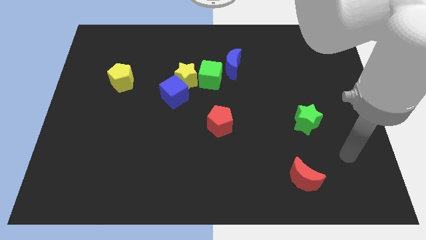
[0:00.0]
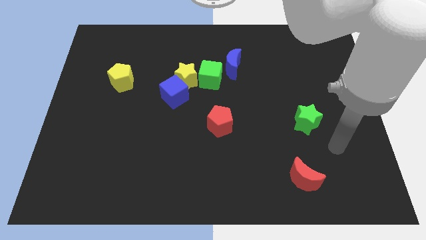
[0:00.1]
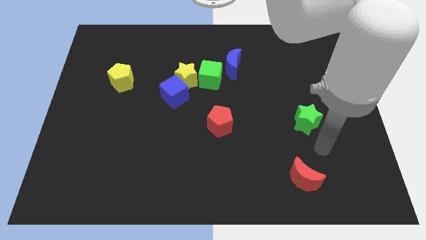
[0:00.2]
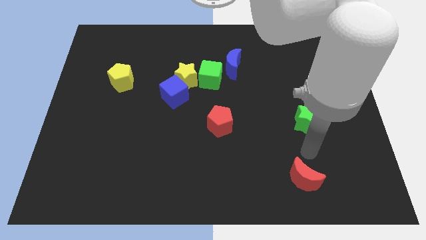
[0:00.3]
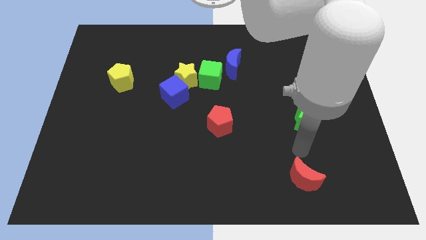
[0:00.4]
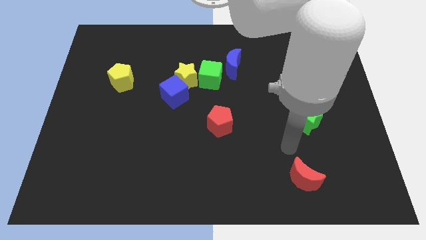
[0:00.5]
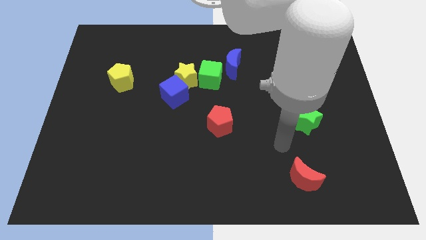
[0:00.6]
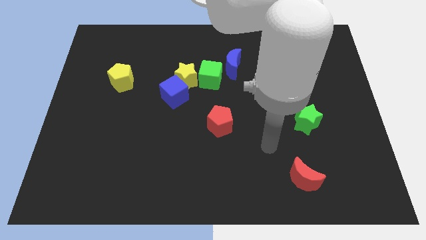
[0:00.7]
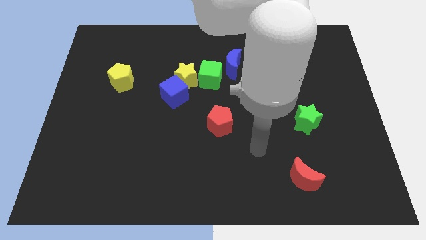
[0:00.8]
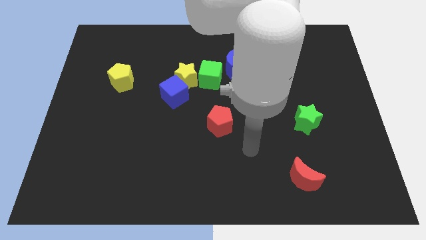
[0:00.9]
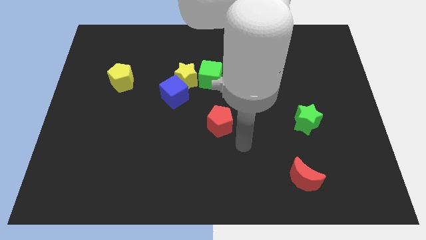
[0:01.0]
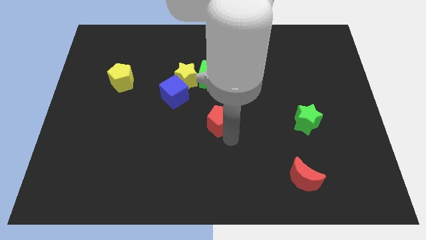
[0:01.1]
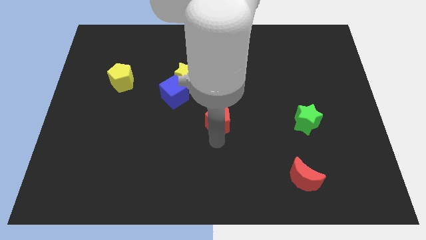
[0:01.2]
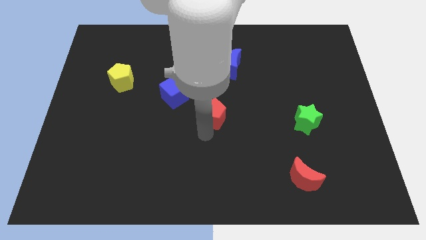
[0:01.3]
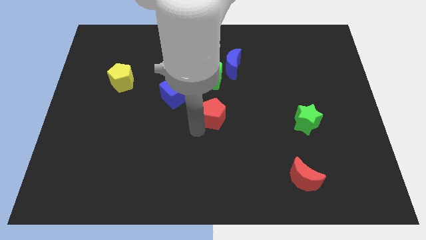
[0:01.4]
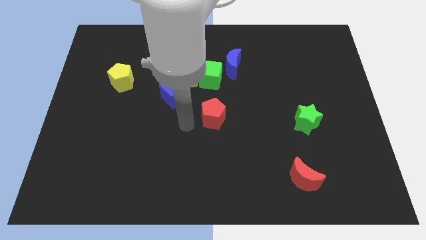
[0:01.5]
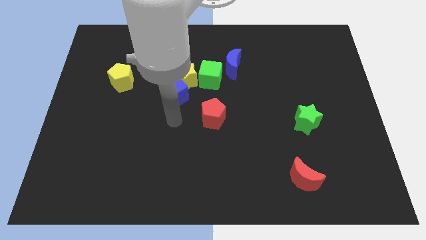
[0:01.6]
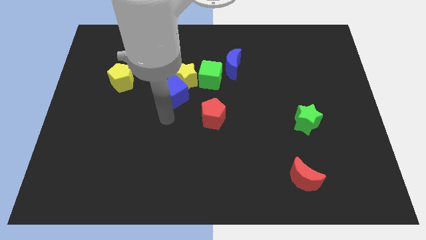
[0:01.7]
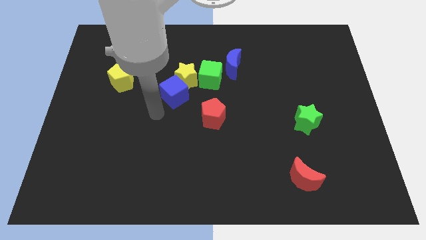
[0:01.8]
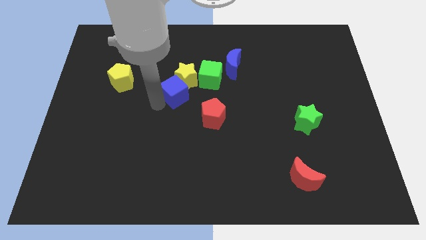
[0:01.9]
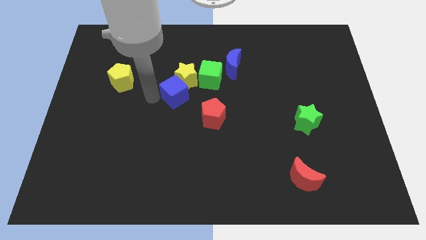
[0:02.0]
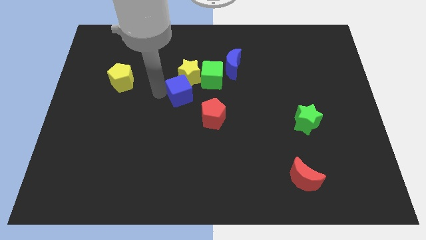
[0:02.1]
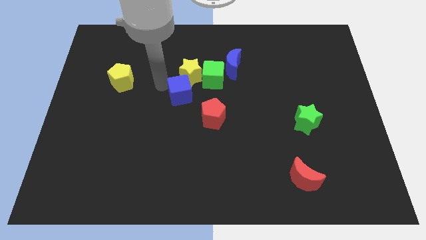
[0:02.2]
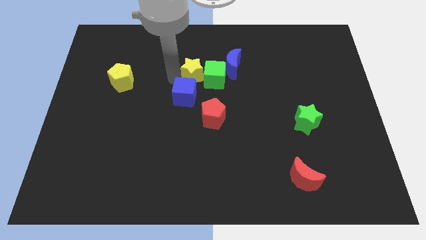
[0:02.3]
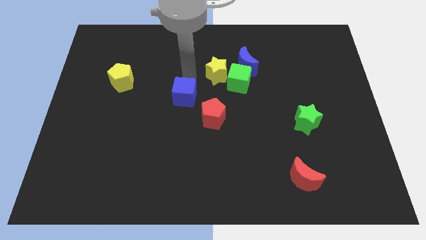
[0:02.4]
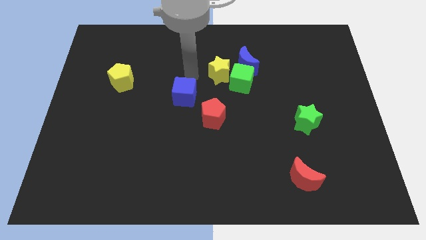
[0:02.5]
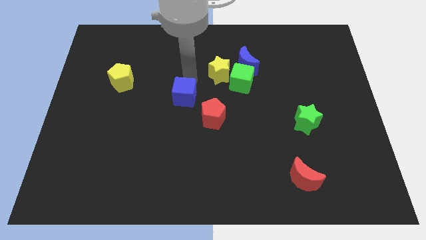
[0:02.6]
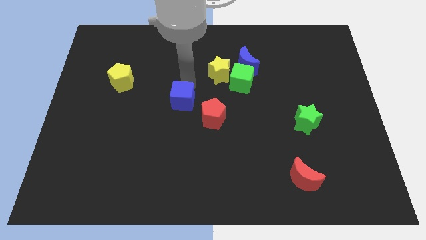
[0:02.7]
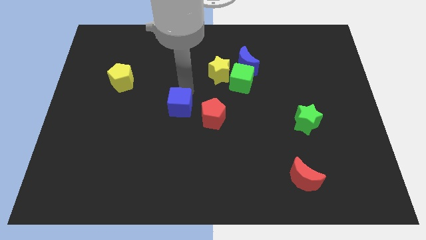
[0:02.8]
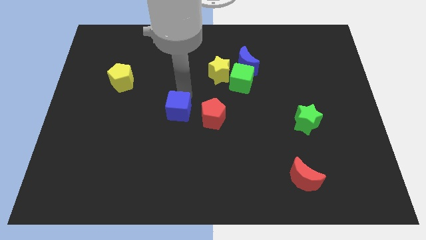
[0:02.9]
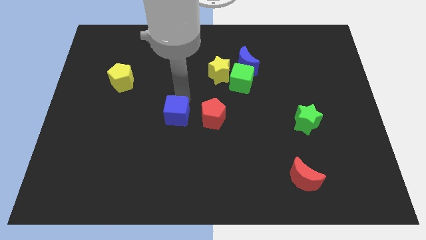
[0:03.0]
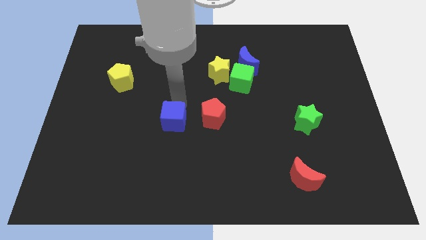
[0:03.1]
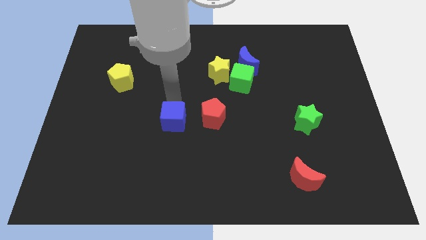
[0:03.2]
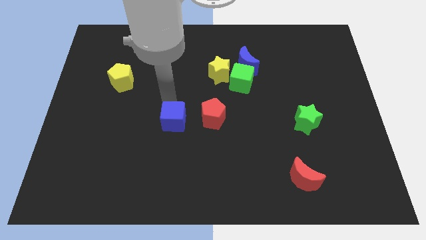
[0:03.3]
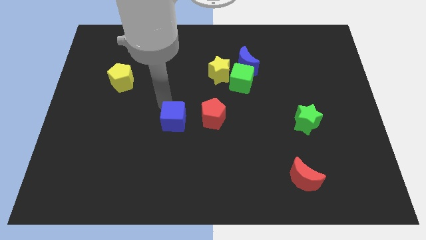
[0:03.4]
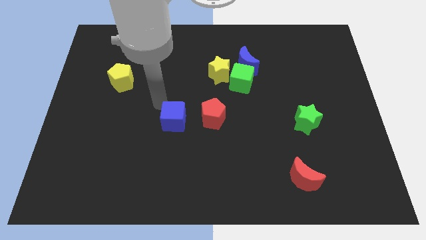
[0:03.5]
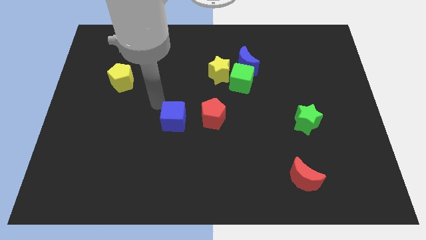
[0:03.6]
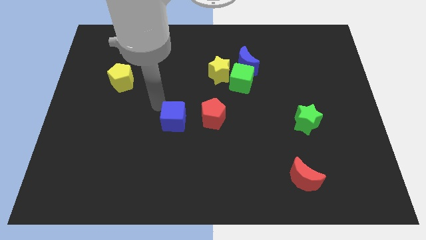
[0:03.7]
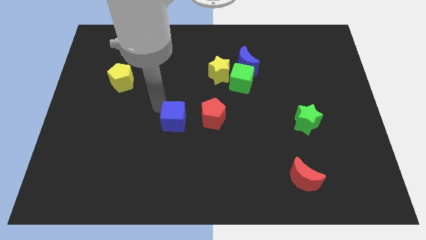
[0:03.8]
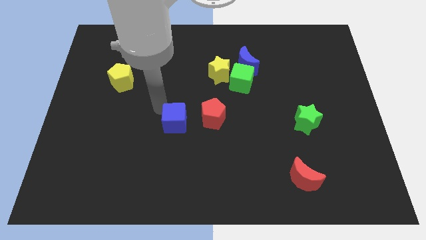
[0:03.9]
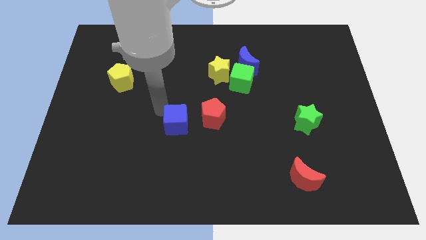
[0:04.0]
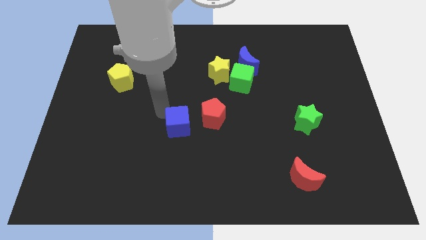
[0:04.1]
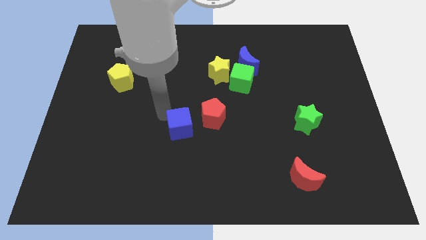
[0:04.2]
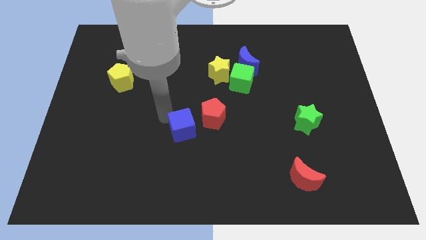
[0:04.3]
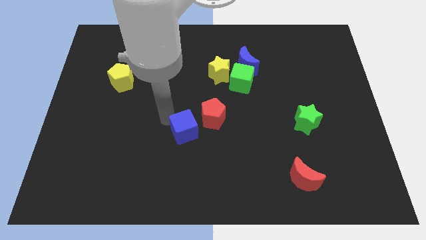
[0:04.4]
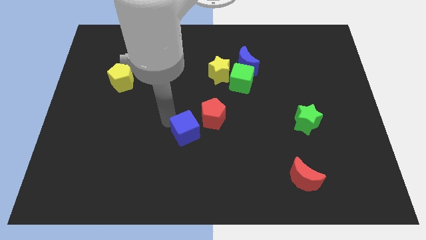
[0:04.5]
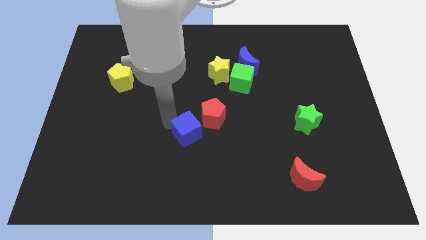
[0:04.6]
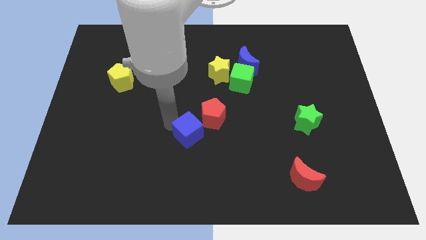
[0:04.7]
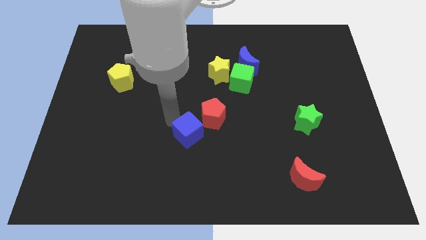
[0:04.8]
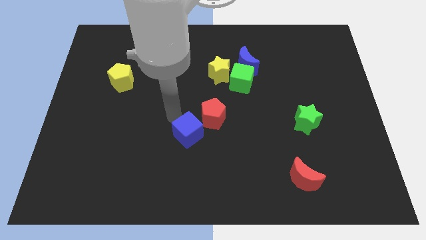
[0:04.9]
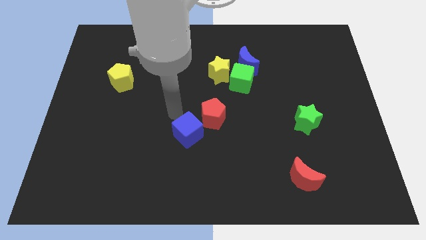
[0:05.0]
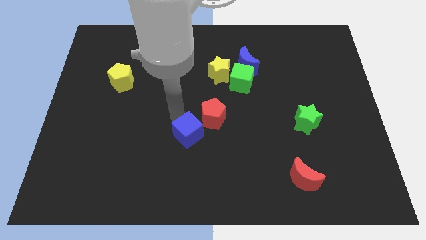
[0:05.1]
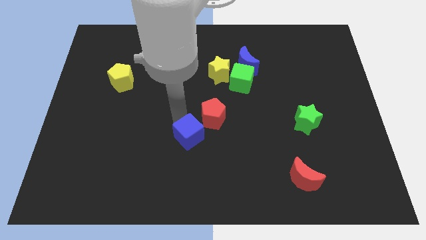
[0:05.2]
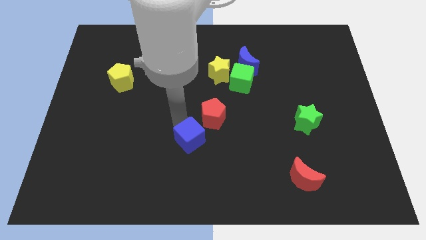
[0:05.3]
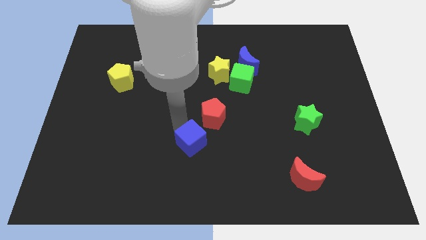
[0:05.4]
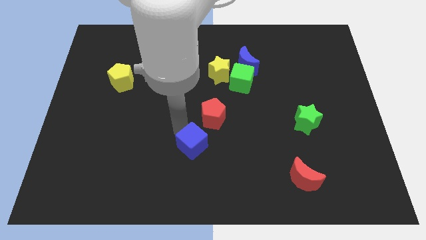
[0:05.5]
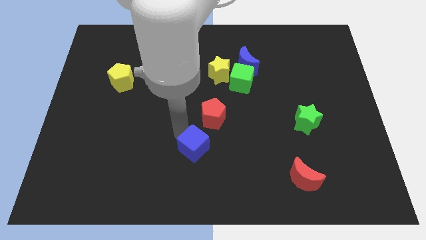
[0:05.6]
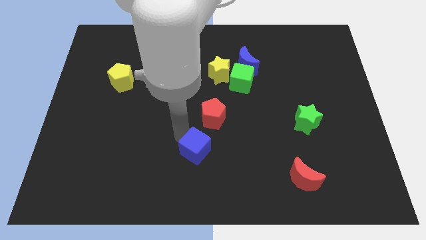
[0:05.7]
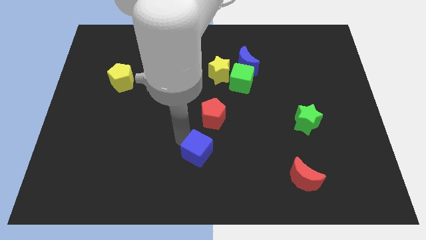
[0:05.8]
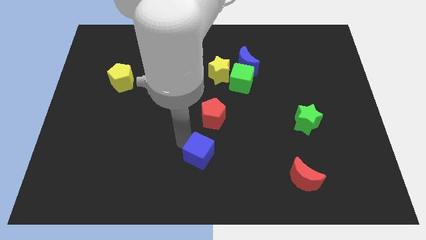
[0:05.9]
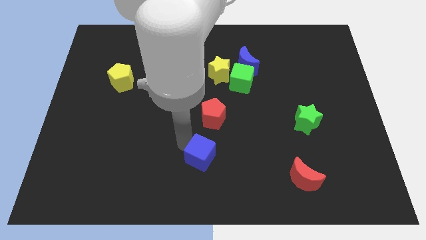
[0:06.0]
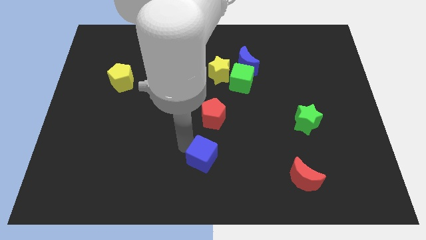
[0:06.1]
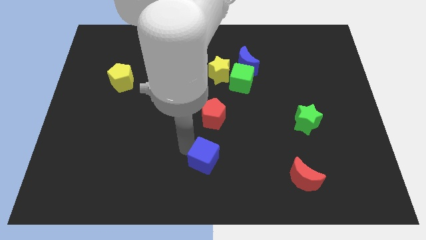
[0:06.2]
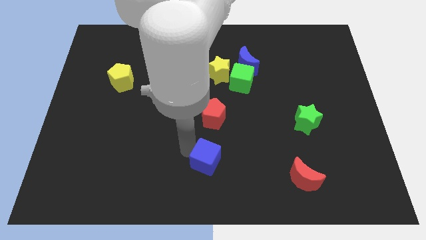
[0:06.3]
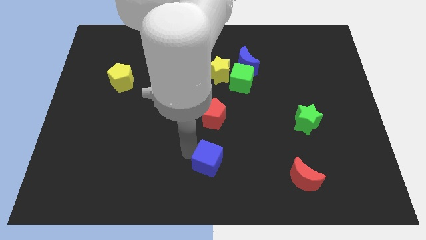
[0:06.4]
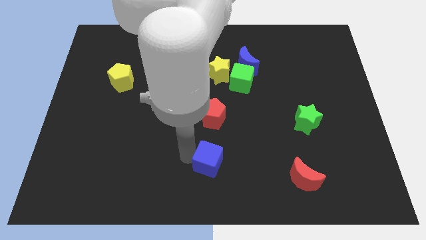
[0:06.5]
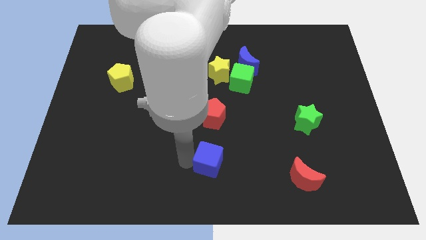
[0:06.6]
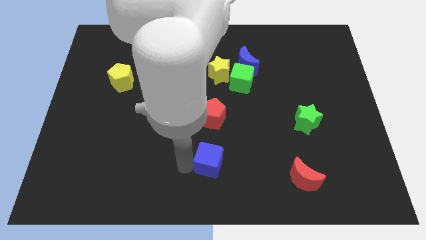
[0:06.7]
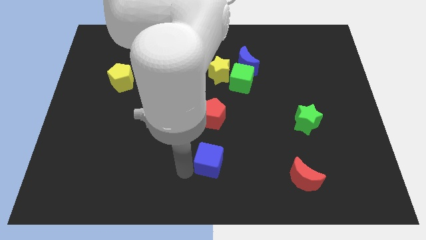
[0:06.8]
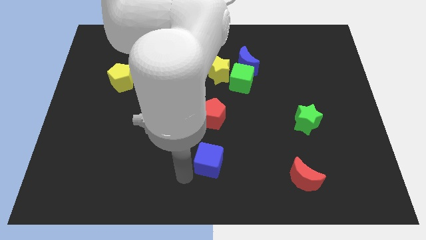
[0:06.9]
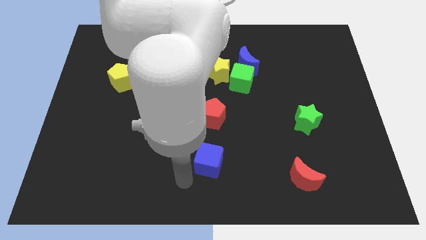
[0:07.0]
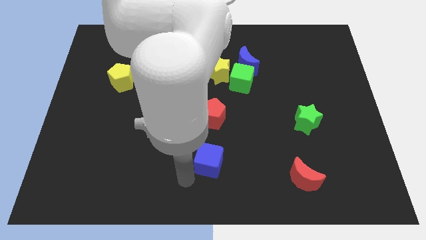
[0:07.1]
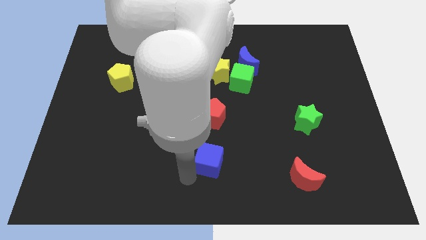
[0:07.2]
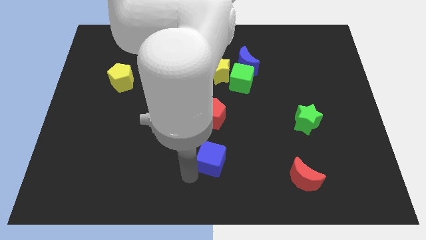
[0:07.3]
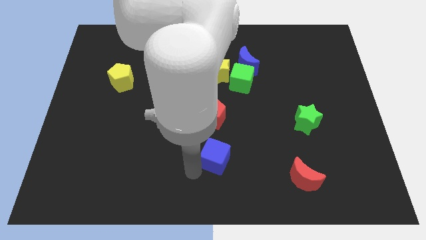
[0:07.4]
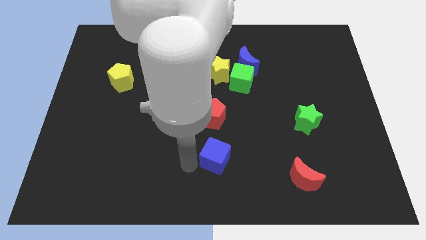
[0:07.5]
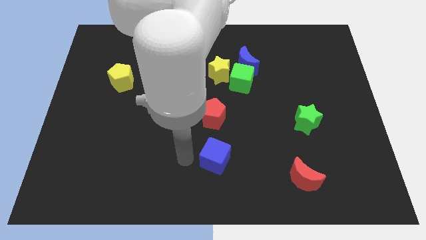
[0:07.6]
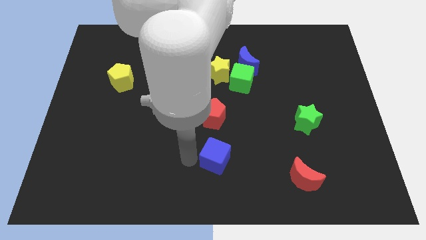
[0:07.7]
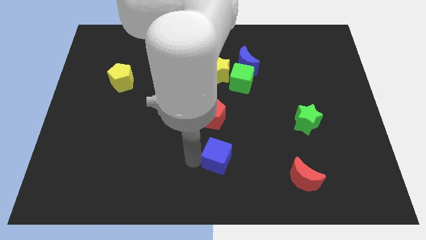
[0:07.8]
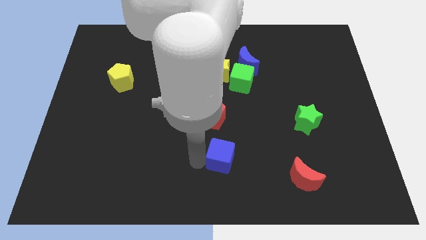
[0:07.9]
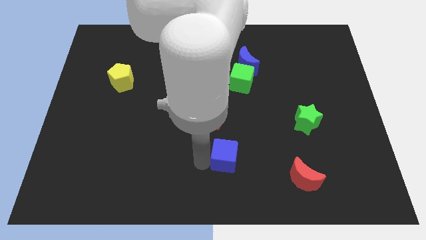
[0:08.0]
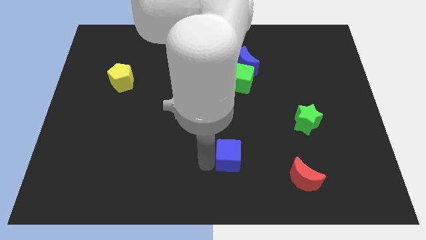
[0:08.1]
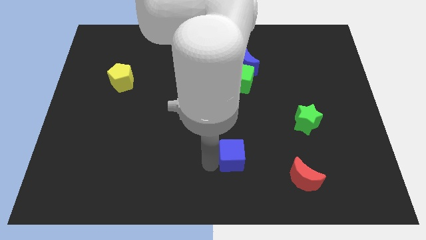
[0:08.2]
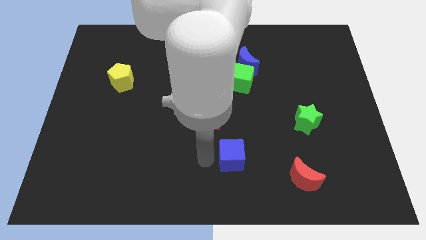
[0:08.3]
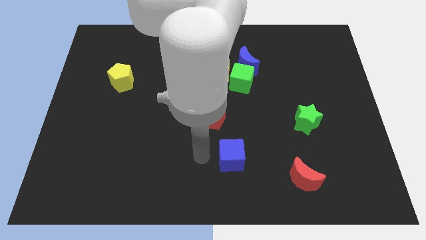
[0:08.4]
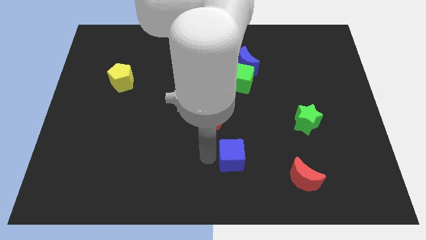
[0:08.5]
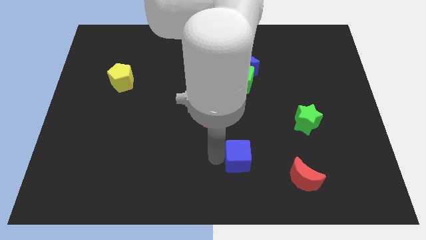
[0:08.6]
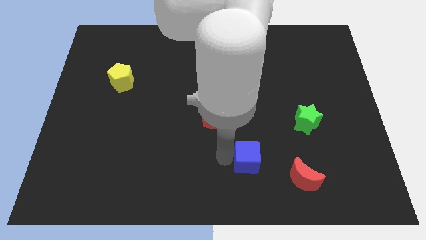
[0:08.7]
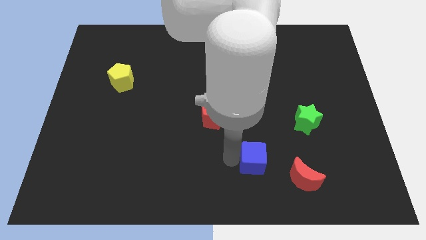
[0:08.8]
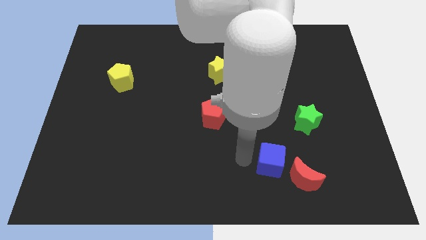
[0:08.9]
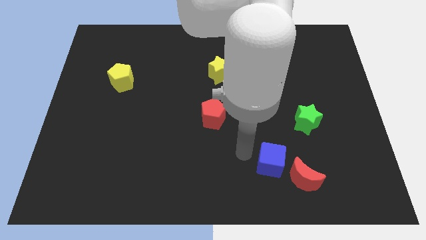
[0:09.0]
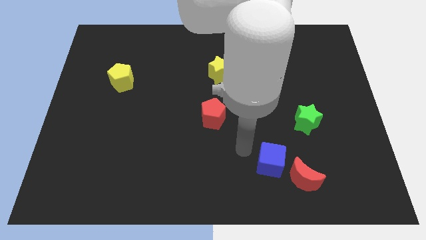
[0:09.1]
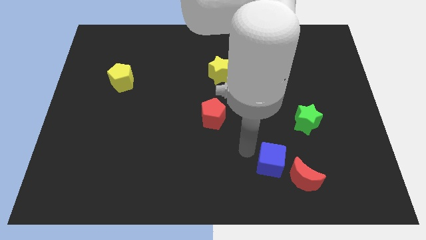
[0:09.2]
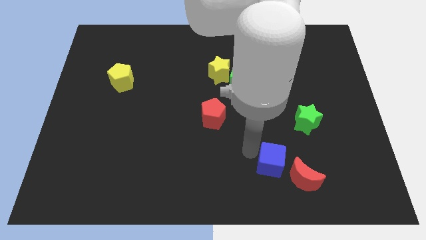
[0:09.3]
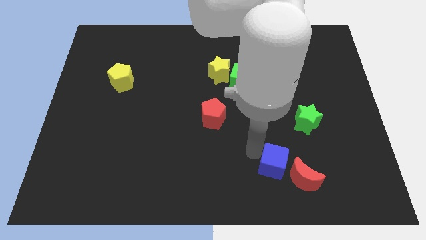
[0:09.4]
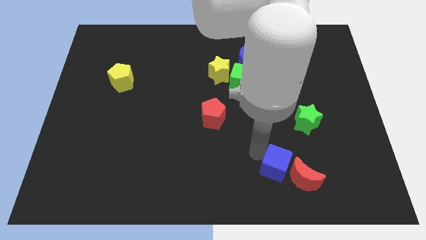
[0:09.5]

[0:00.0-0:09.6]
put the blue cube close to the red moon
